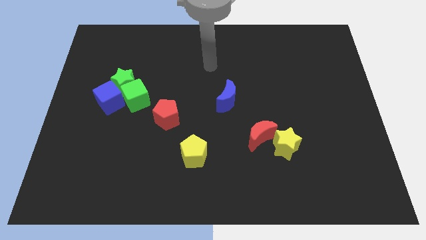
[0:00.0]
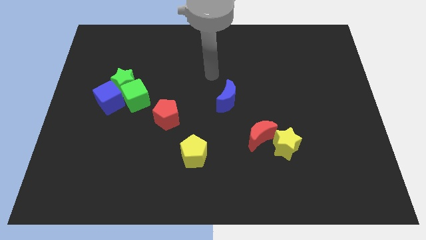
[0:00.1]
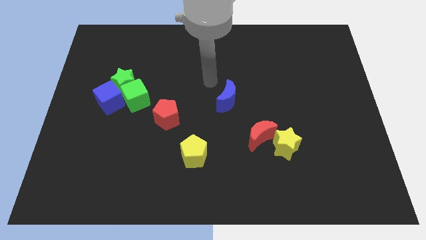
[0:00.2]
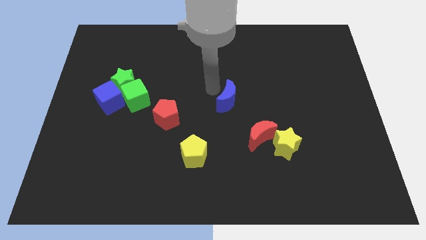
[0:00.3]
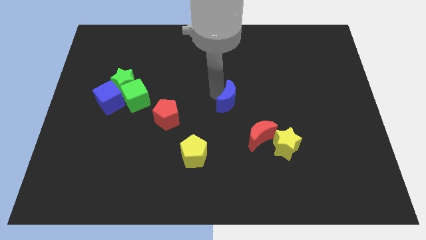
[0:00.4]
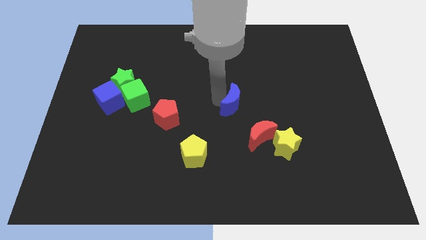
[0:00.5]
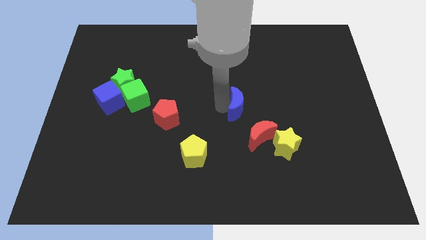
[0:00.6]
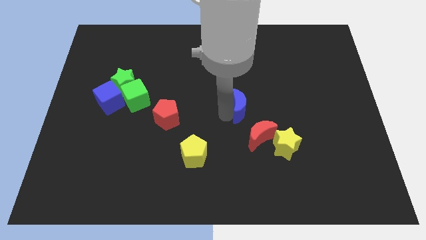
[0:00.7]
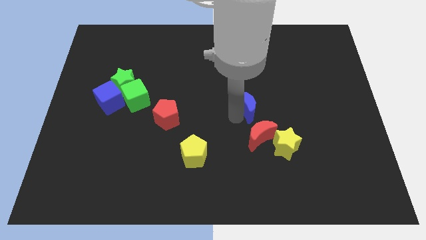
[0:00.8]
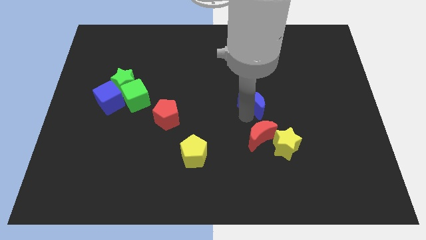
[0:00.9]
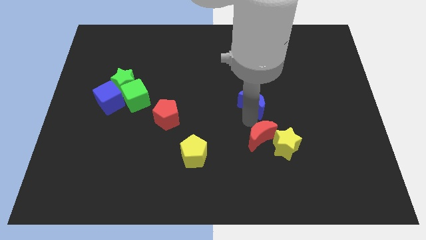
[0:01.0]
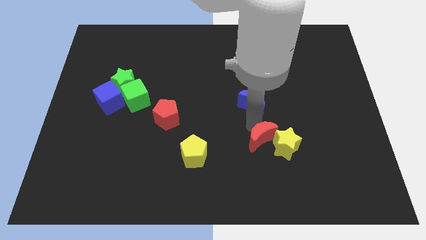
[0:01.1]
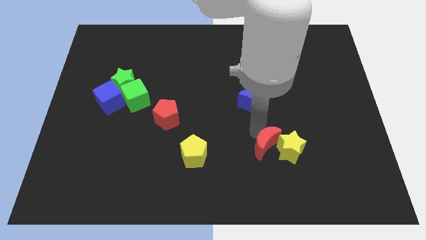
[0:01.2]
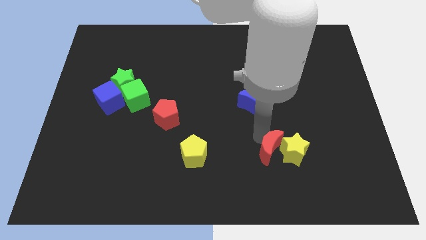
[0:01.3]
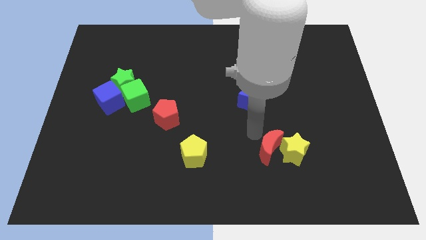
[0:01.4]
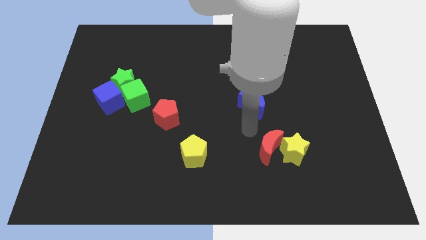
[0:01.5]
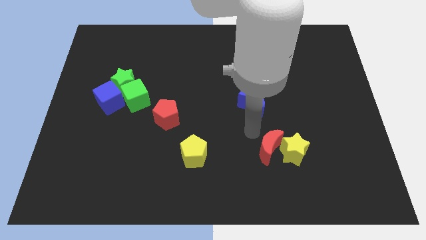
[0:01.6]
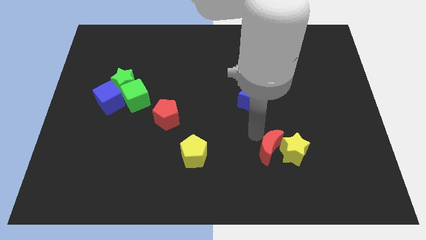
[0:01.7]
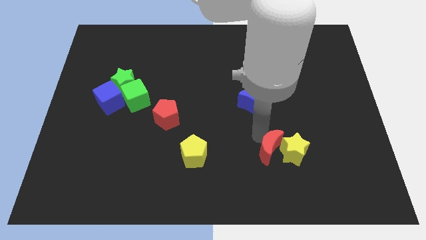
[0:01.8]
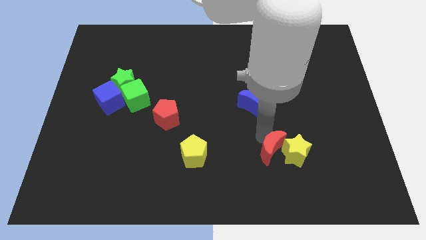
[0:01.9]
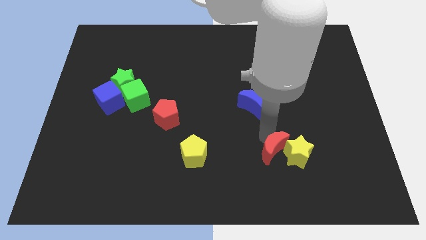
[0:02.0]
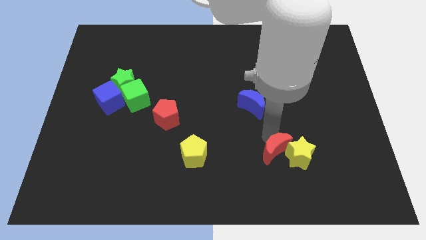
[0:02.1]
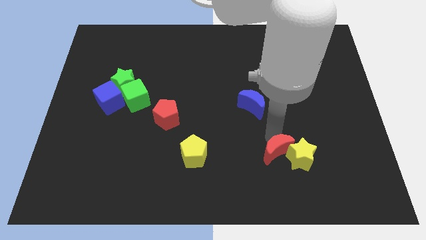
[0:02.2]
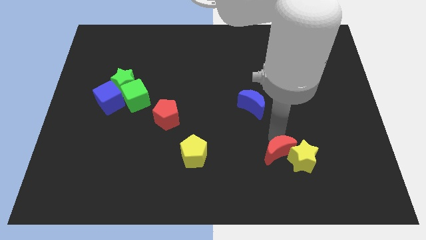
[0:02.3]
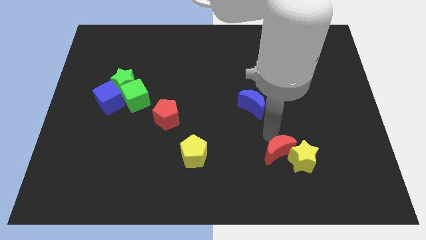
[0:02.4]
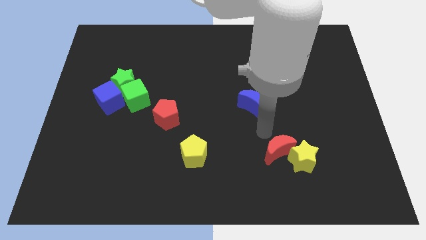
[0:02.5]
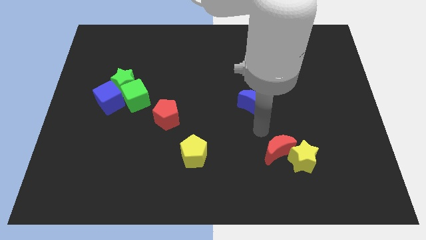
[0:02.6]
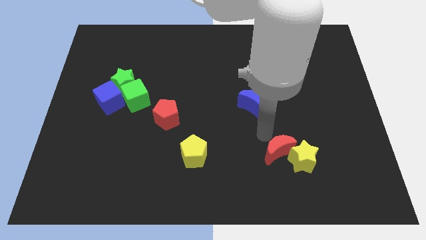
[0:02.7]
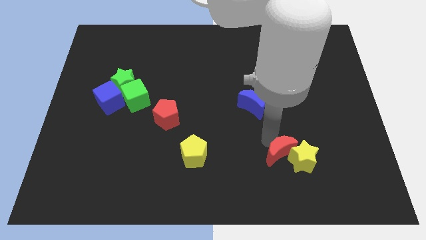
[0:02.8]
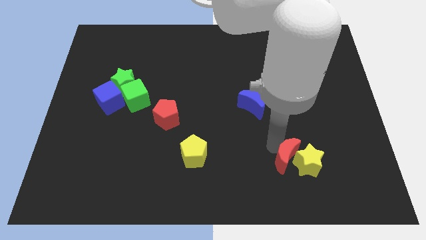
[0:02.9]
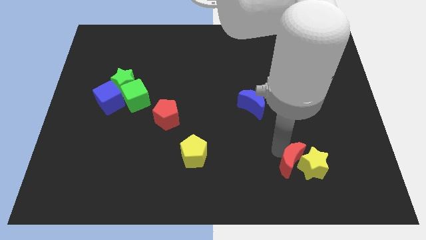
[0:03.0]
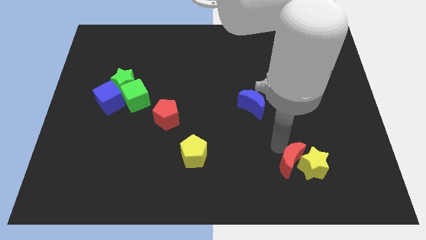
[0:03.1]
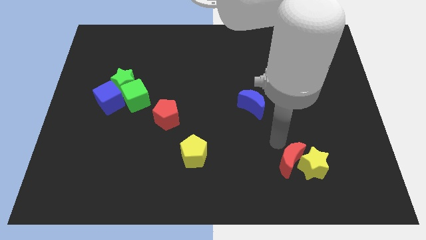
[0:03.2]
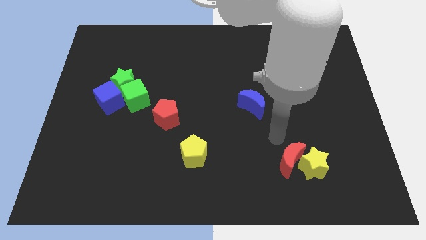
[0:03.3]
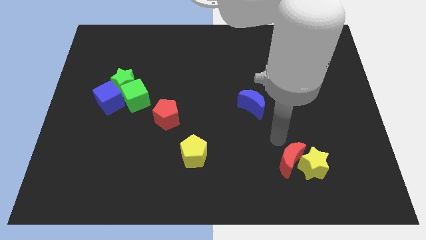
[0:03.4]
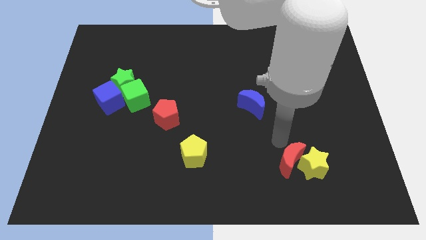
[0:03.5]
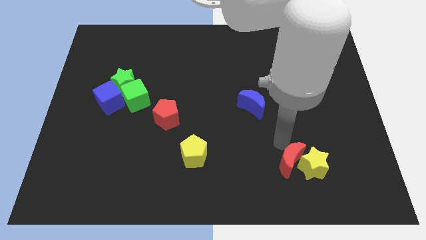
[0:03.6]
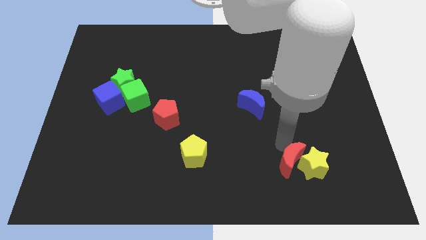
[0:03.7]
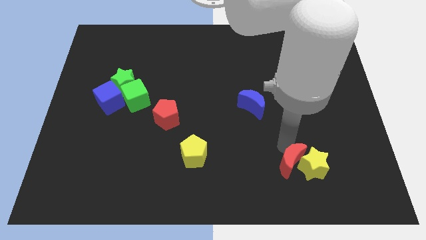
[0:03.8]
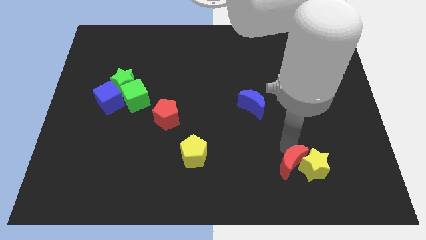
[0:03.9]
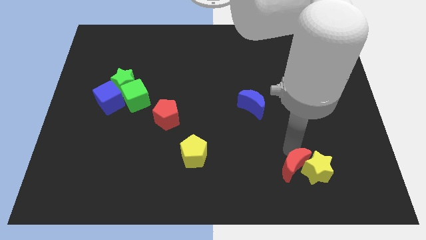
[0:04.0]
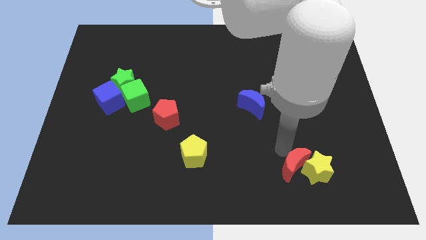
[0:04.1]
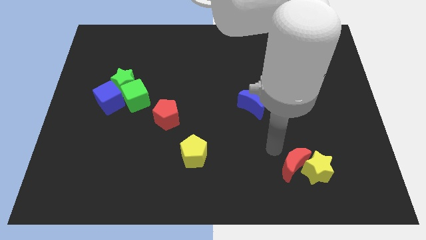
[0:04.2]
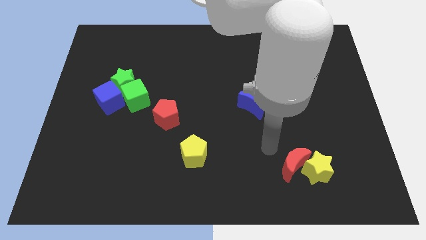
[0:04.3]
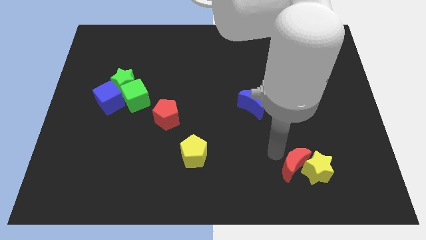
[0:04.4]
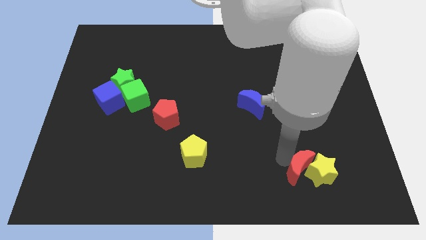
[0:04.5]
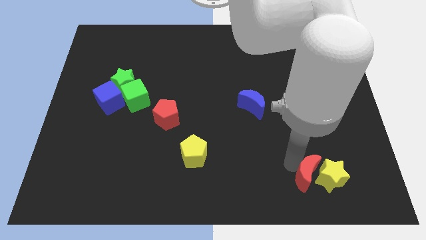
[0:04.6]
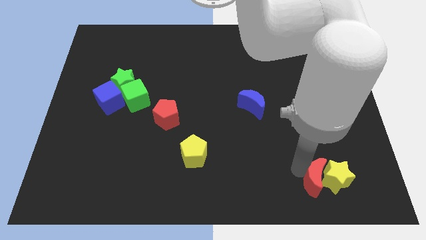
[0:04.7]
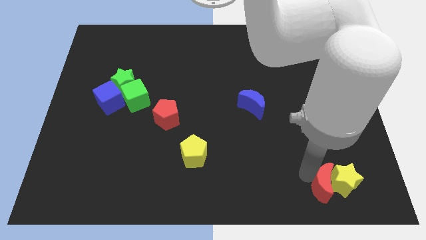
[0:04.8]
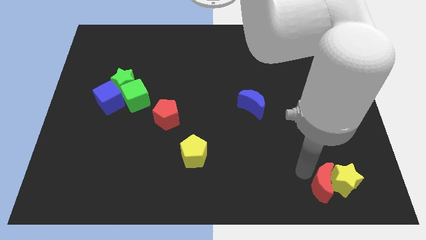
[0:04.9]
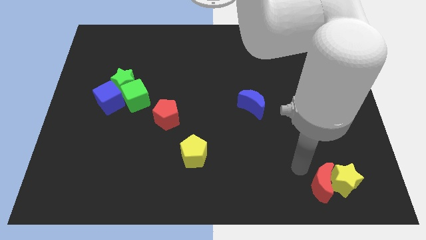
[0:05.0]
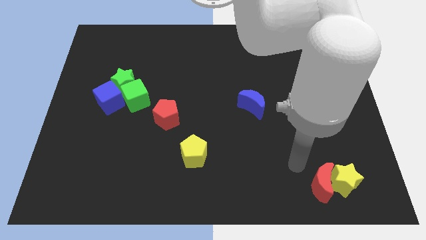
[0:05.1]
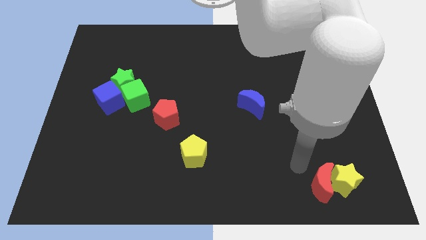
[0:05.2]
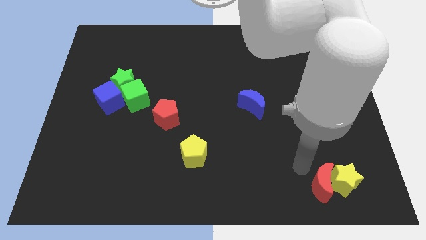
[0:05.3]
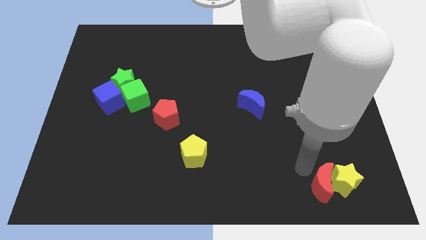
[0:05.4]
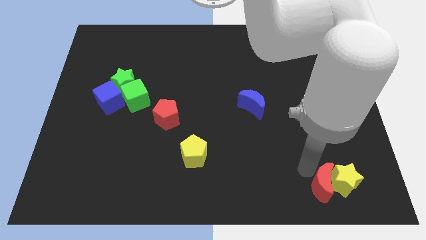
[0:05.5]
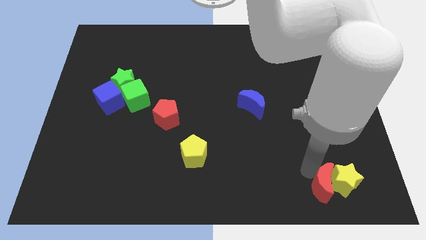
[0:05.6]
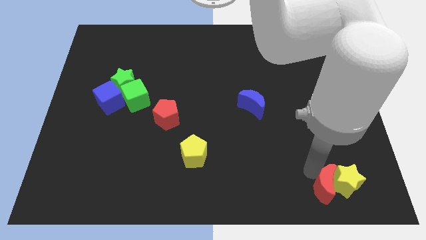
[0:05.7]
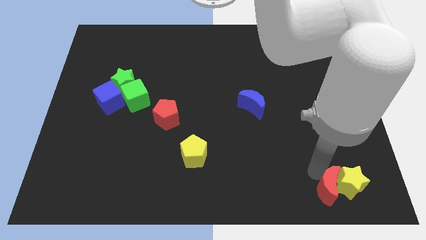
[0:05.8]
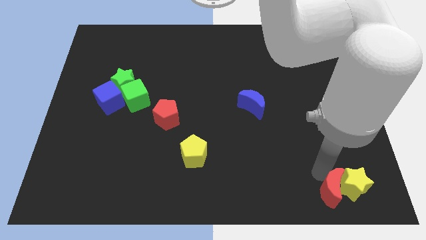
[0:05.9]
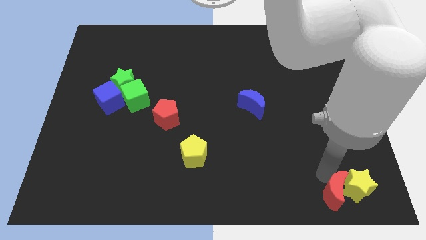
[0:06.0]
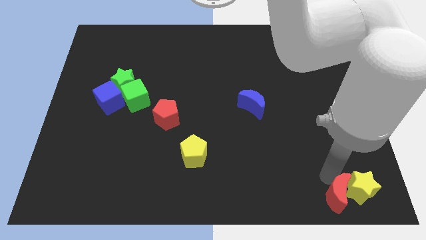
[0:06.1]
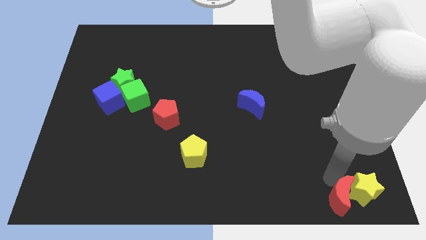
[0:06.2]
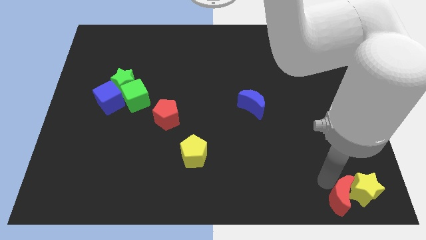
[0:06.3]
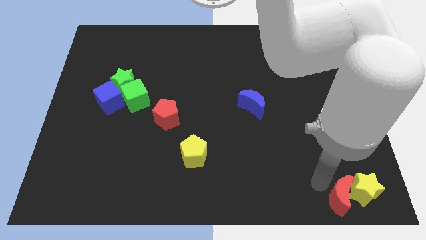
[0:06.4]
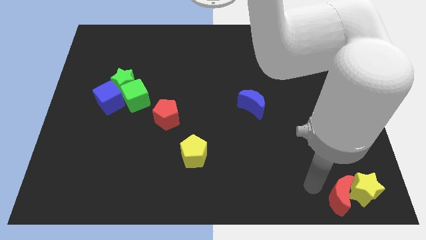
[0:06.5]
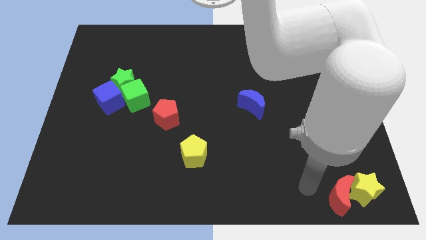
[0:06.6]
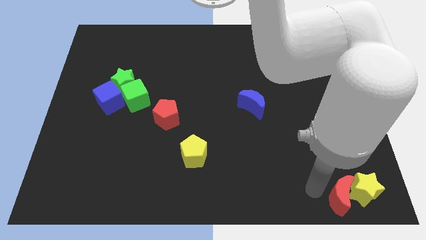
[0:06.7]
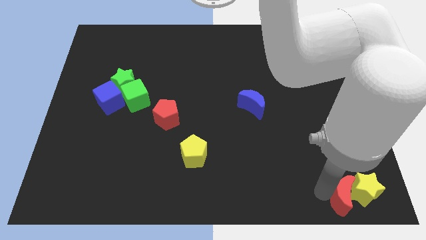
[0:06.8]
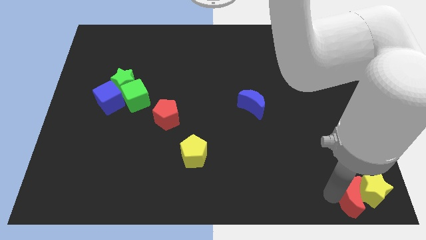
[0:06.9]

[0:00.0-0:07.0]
push the red moon to the bottom right corner

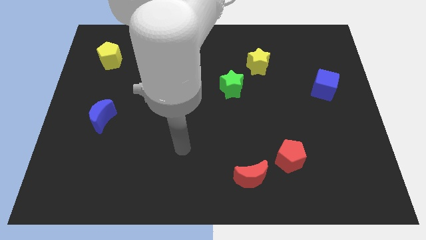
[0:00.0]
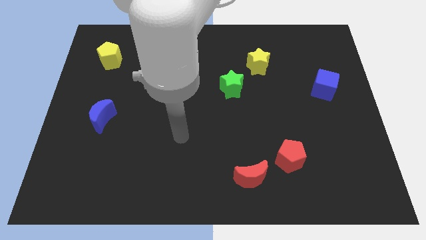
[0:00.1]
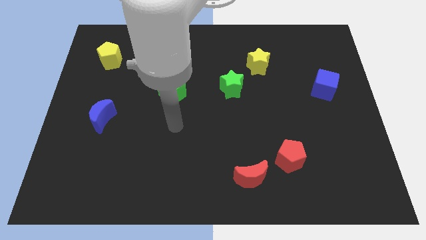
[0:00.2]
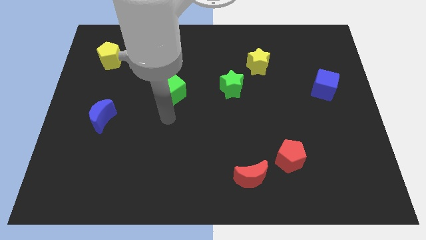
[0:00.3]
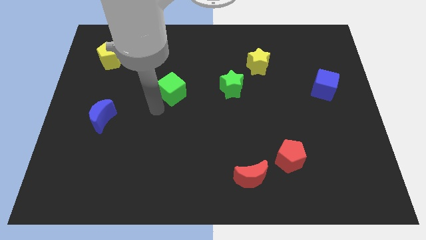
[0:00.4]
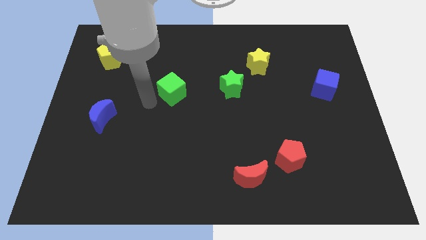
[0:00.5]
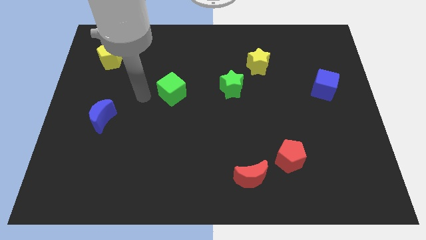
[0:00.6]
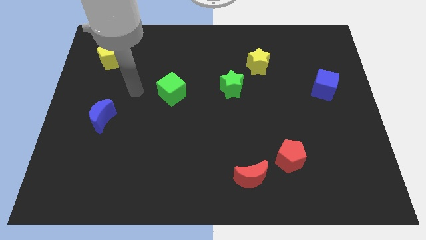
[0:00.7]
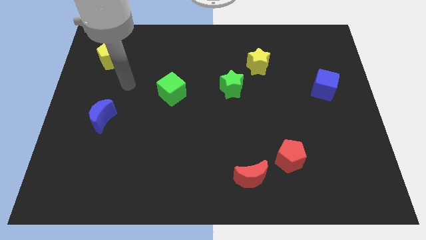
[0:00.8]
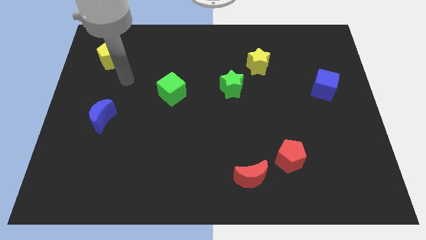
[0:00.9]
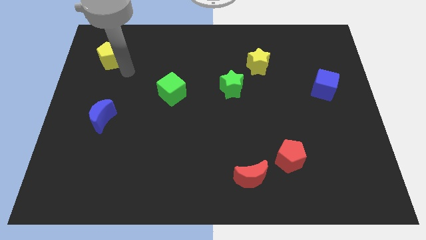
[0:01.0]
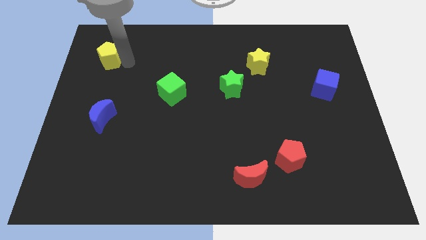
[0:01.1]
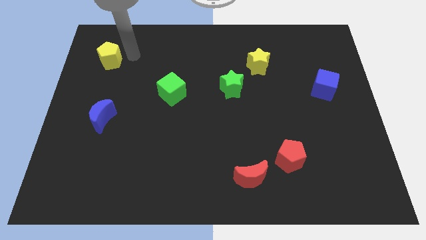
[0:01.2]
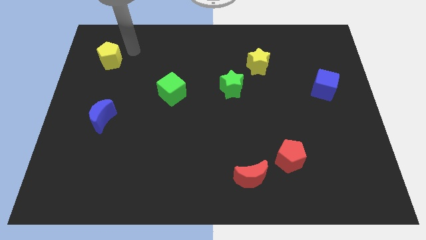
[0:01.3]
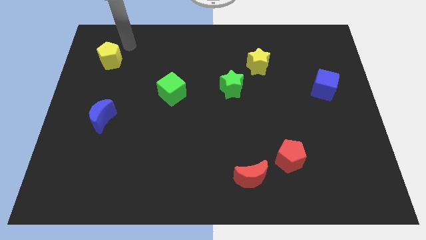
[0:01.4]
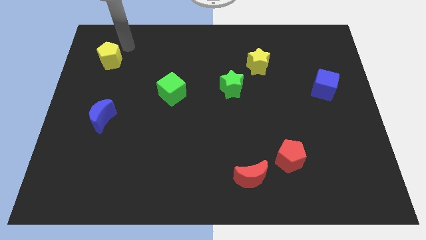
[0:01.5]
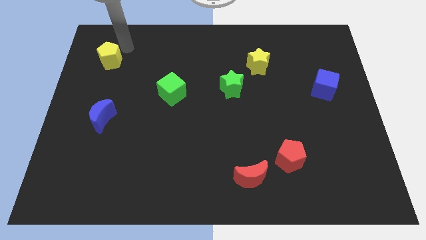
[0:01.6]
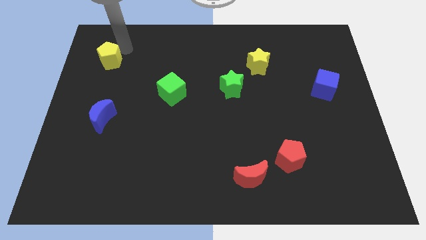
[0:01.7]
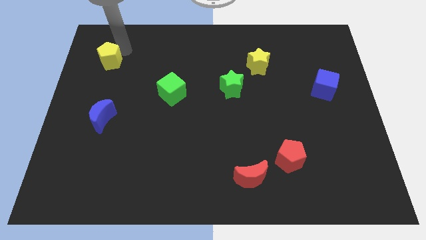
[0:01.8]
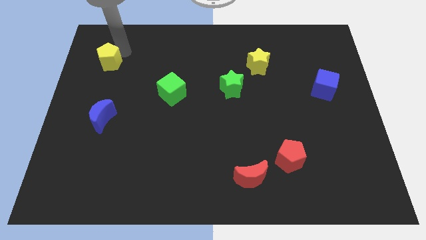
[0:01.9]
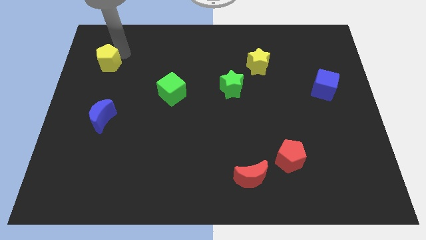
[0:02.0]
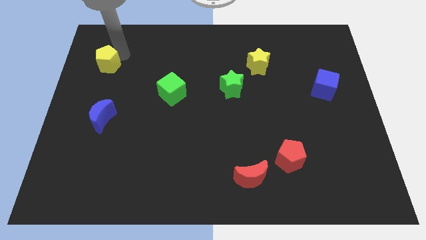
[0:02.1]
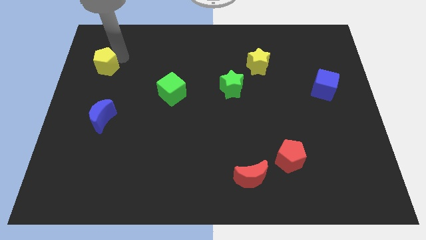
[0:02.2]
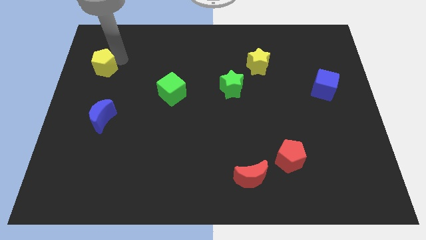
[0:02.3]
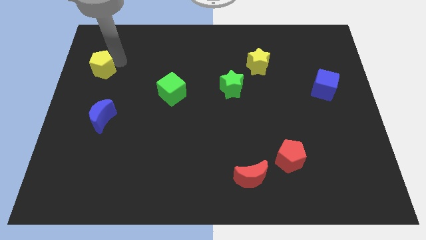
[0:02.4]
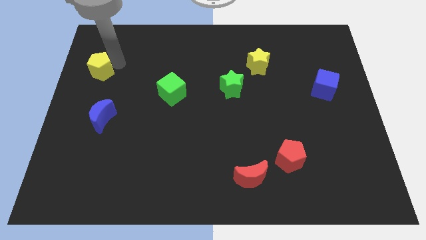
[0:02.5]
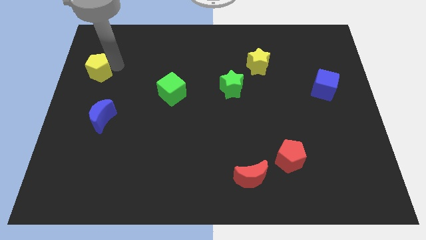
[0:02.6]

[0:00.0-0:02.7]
slide the yellow pentagon to the left side of the board
